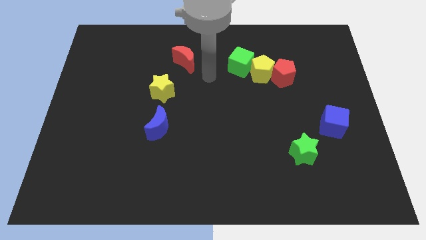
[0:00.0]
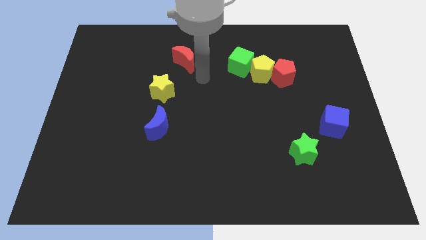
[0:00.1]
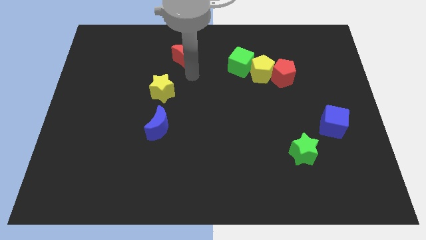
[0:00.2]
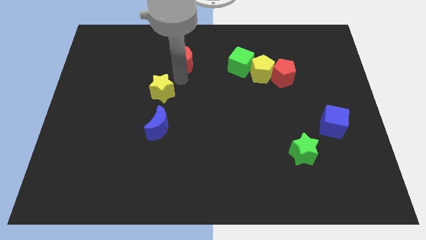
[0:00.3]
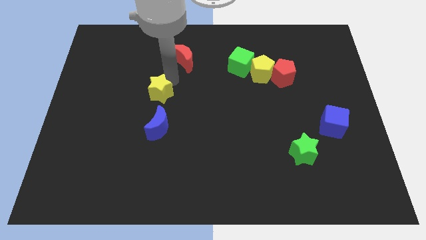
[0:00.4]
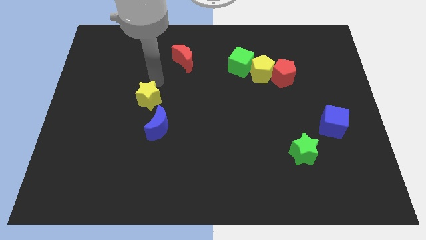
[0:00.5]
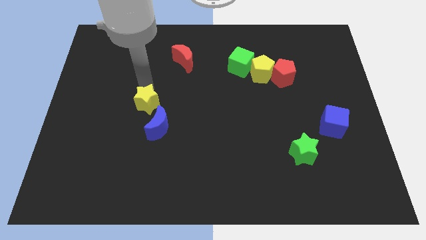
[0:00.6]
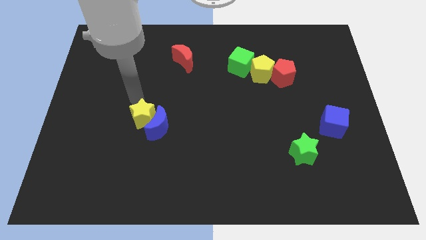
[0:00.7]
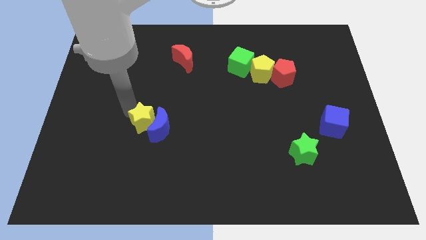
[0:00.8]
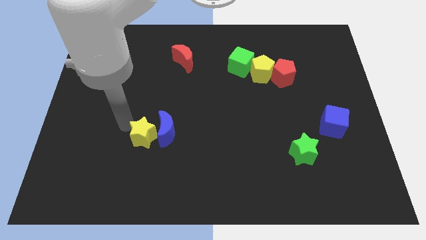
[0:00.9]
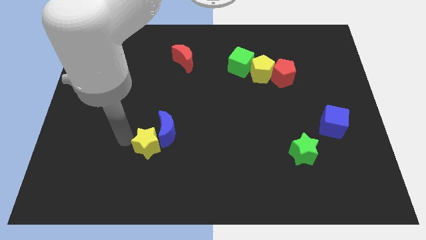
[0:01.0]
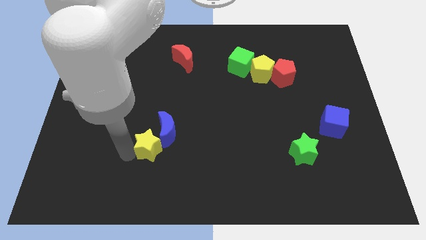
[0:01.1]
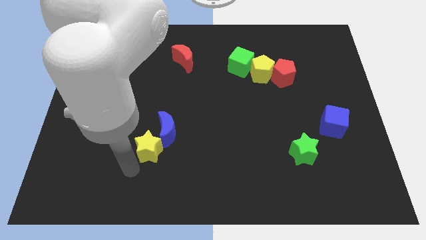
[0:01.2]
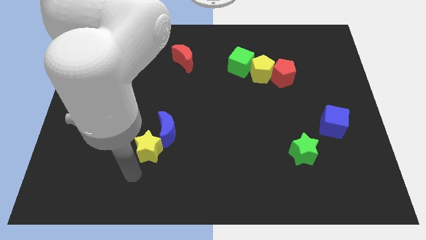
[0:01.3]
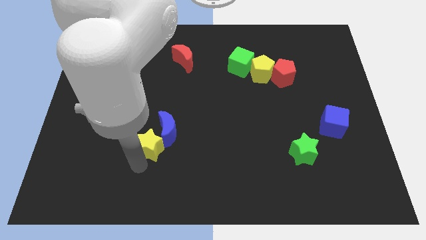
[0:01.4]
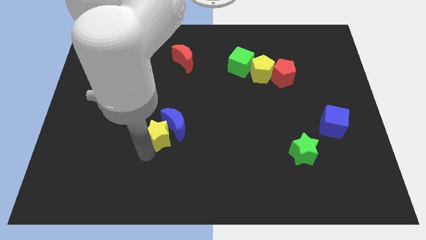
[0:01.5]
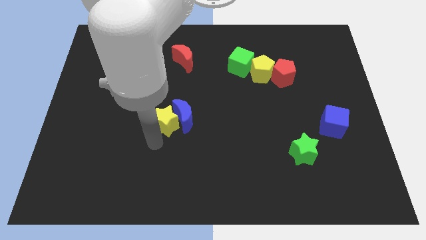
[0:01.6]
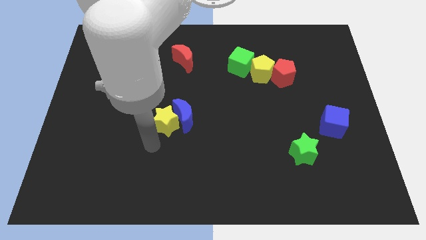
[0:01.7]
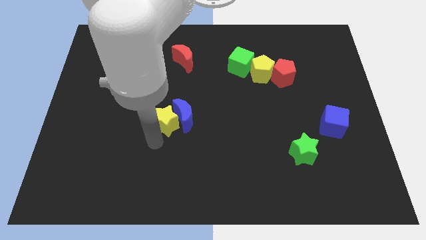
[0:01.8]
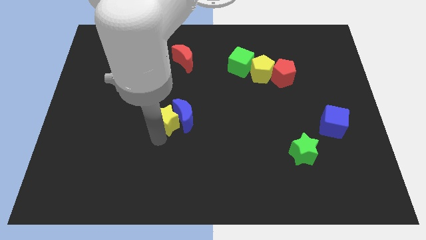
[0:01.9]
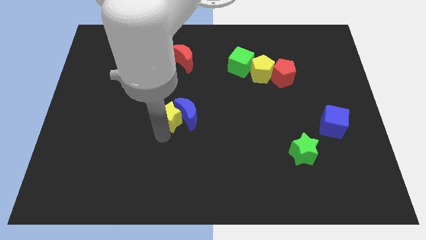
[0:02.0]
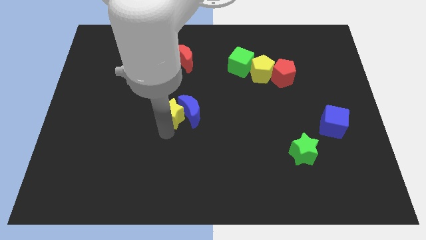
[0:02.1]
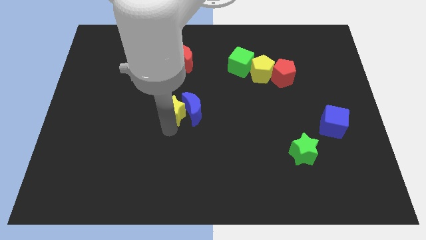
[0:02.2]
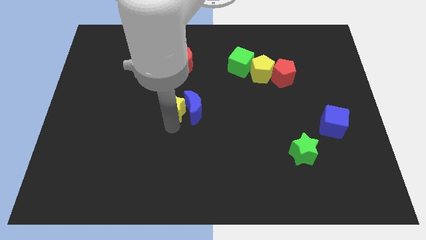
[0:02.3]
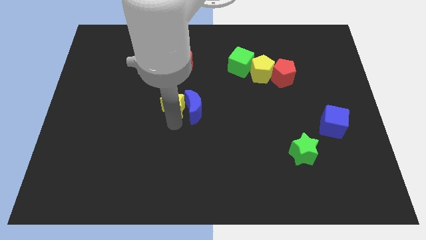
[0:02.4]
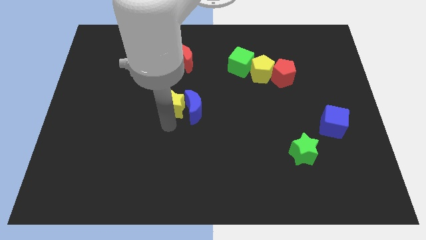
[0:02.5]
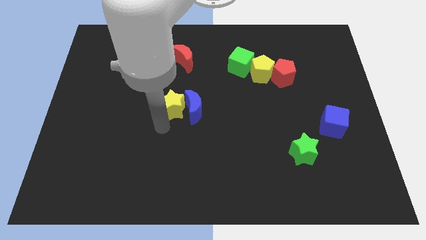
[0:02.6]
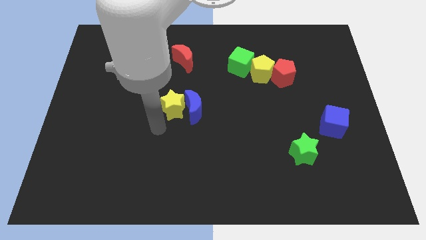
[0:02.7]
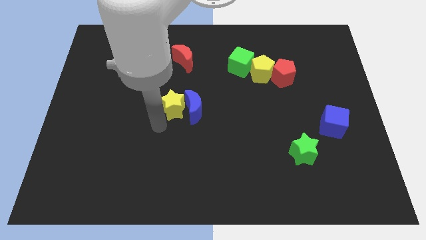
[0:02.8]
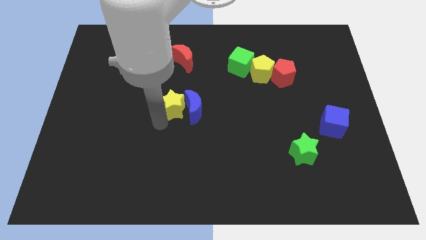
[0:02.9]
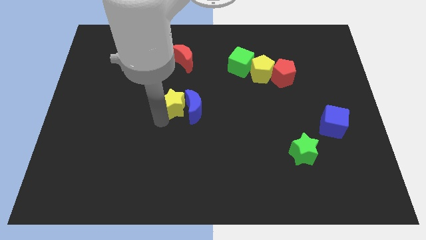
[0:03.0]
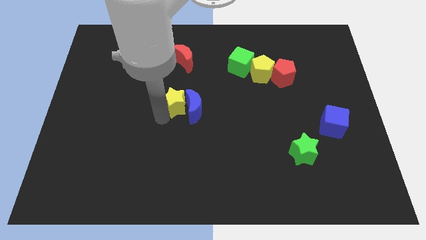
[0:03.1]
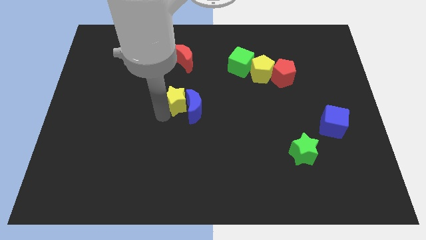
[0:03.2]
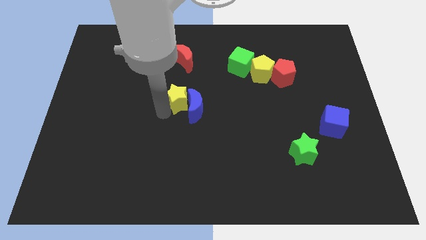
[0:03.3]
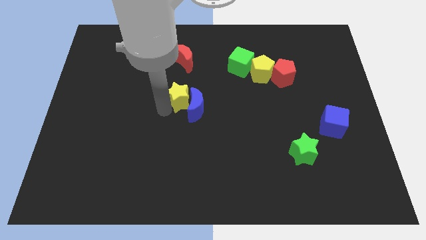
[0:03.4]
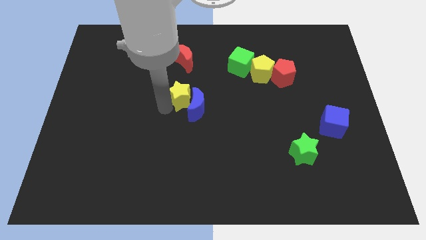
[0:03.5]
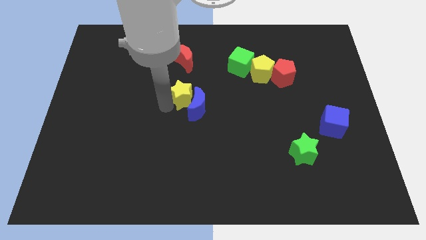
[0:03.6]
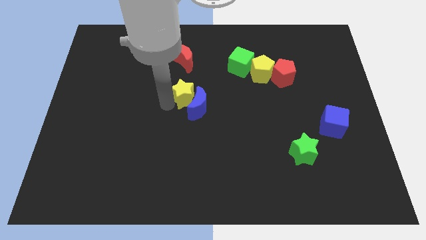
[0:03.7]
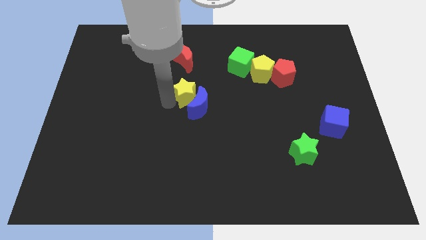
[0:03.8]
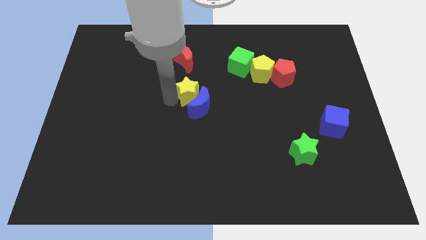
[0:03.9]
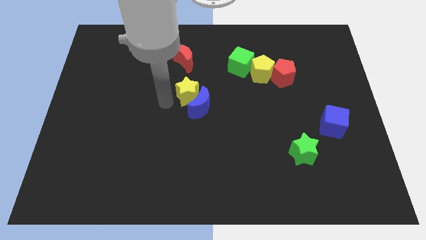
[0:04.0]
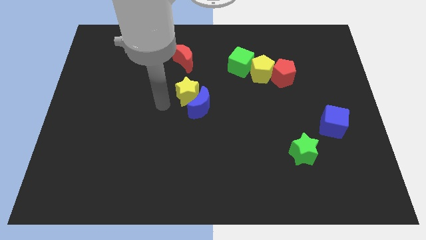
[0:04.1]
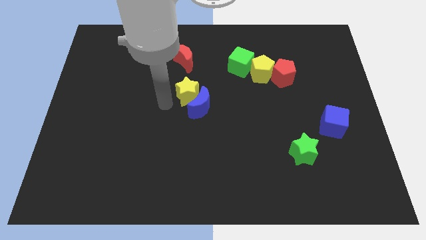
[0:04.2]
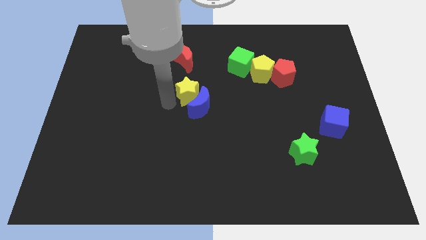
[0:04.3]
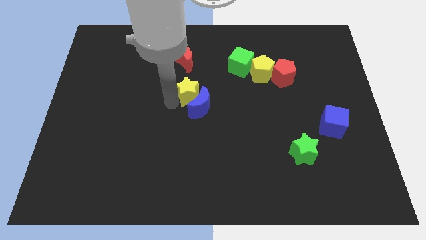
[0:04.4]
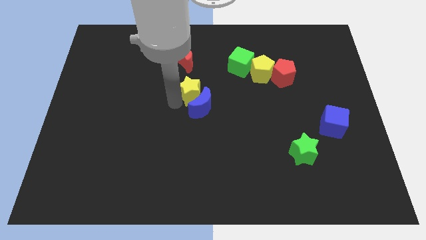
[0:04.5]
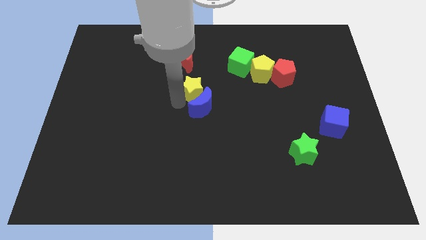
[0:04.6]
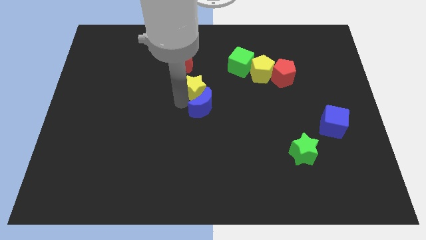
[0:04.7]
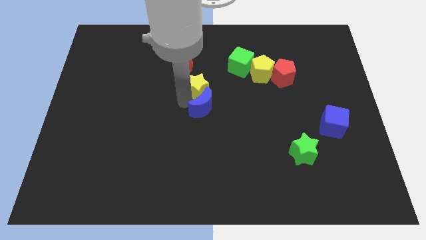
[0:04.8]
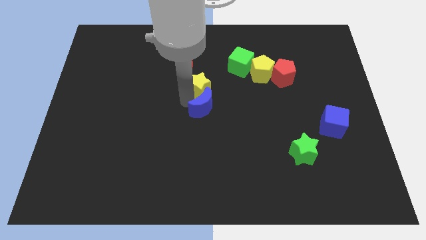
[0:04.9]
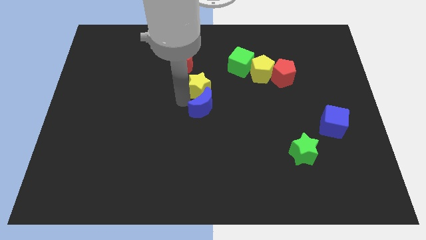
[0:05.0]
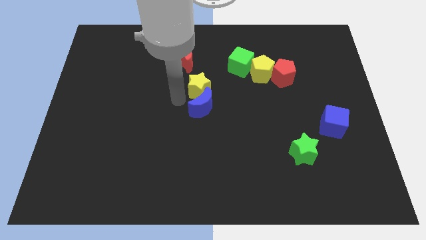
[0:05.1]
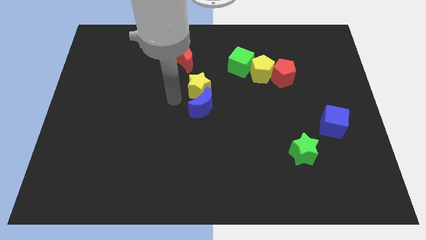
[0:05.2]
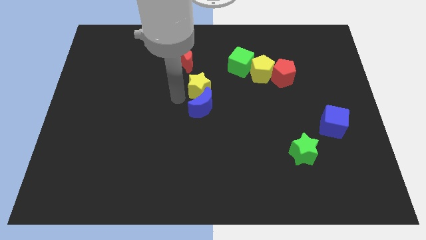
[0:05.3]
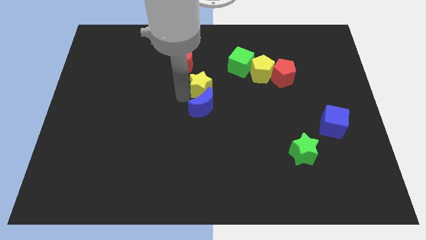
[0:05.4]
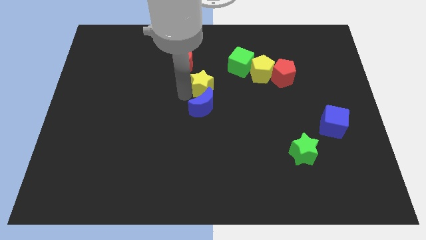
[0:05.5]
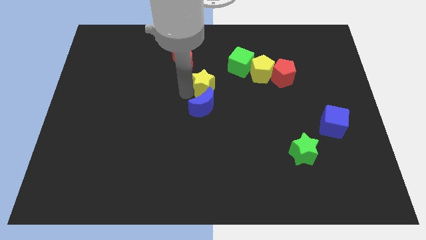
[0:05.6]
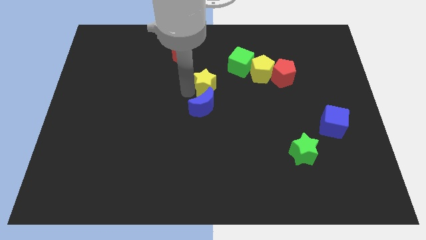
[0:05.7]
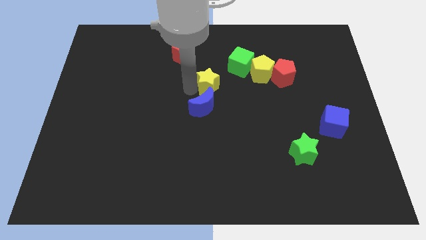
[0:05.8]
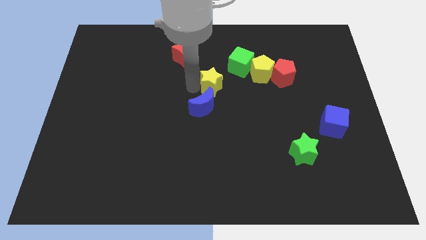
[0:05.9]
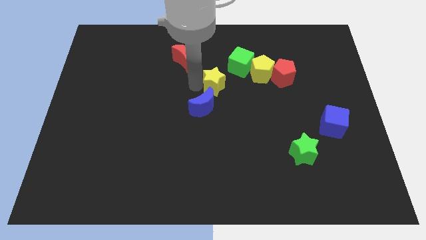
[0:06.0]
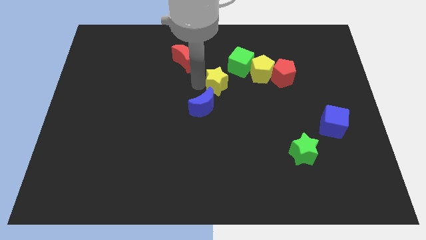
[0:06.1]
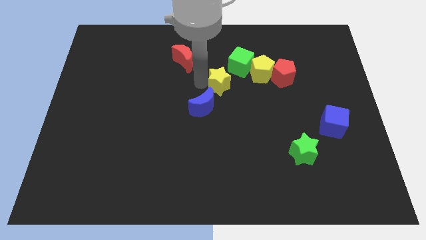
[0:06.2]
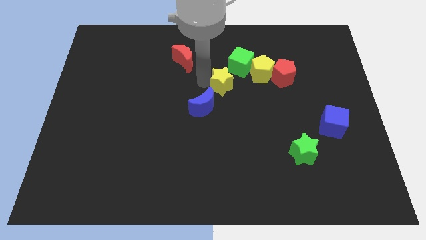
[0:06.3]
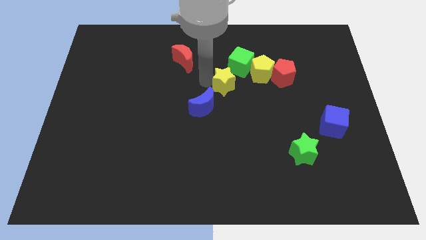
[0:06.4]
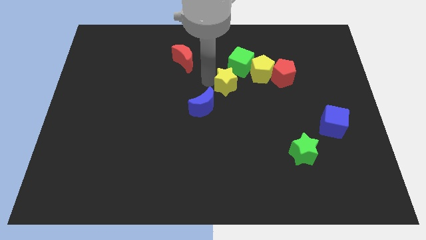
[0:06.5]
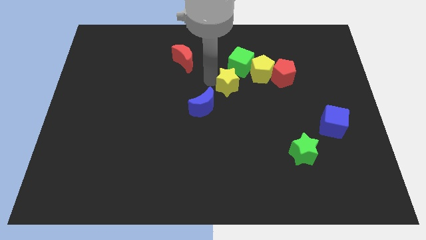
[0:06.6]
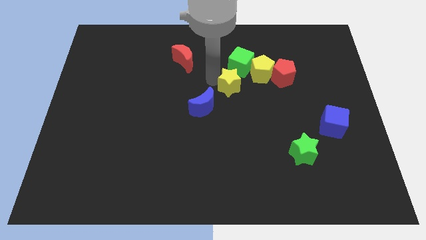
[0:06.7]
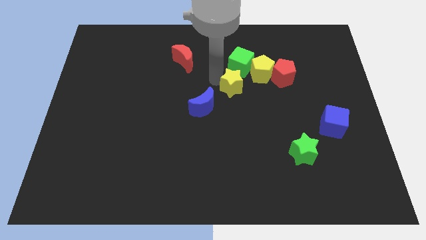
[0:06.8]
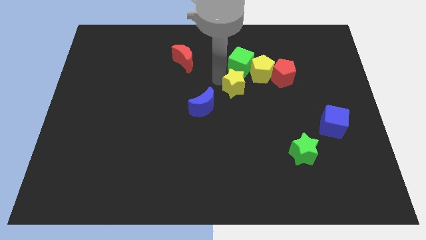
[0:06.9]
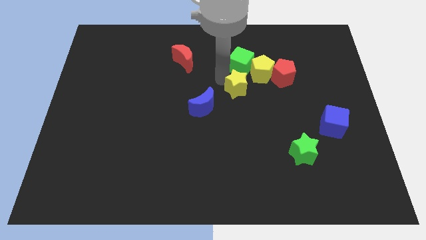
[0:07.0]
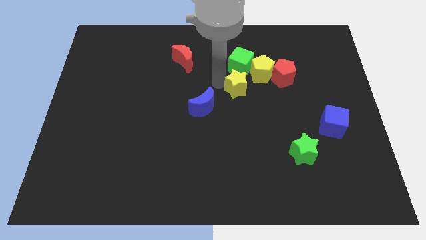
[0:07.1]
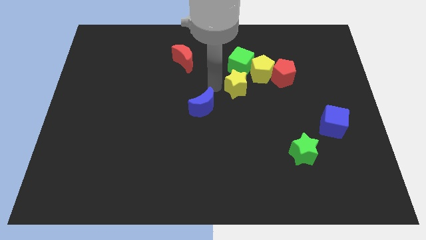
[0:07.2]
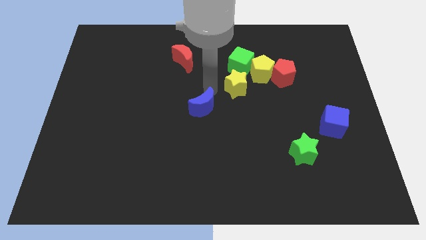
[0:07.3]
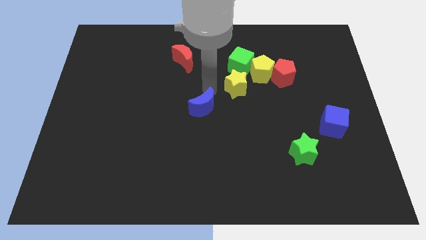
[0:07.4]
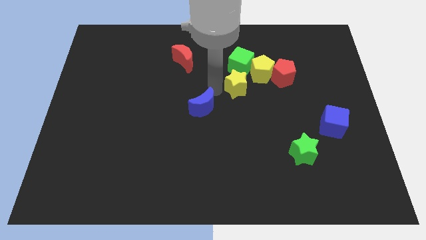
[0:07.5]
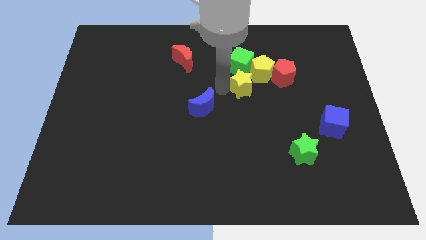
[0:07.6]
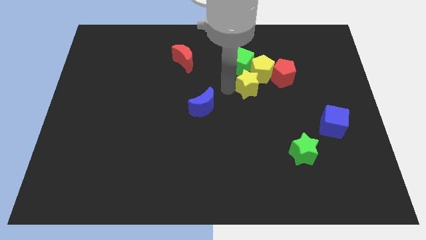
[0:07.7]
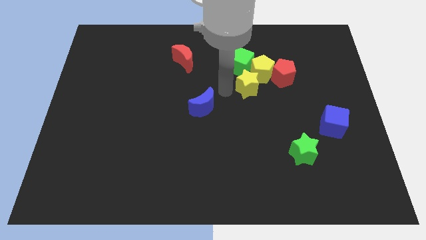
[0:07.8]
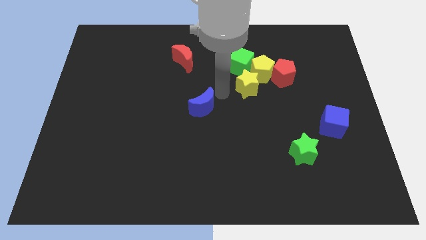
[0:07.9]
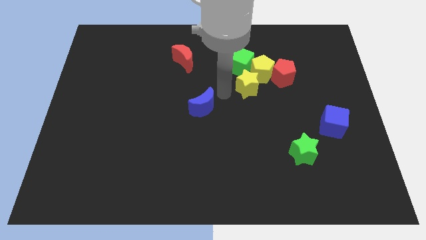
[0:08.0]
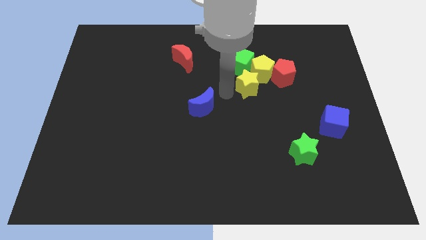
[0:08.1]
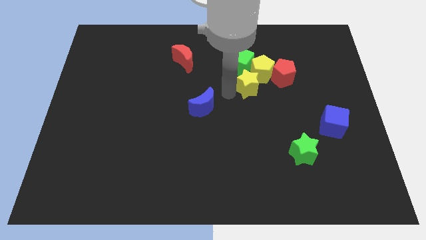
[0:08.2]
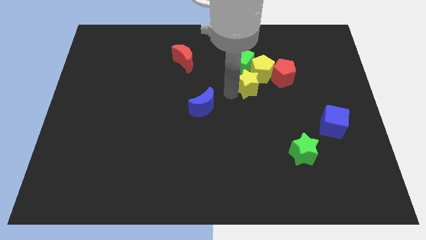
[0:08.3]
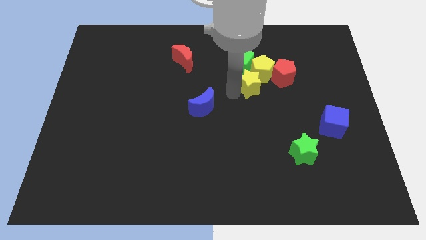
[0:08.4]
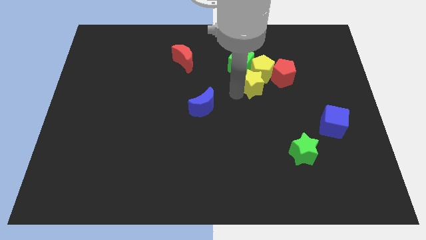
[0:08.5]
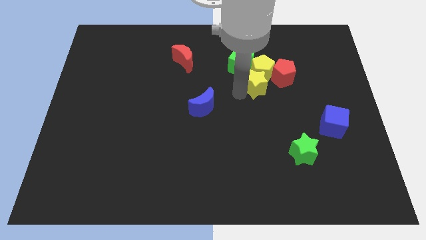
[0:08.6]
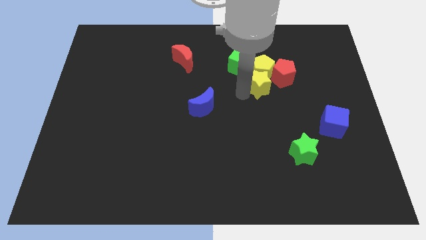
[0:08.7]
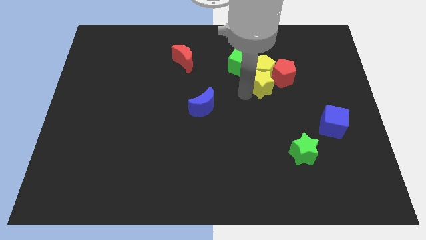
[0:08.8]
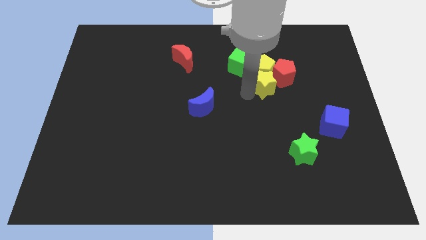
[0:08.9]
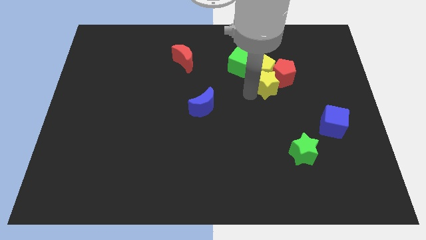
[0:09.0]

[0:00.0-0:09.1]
slide the yellow star to the red pentagon
